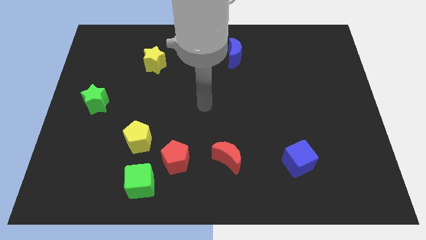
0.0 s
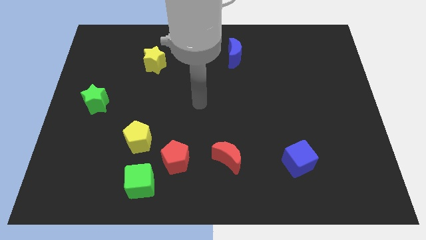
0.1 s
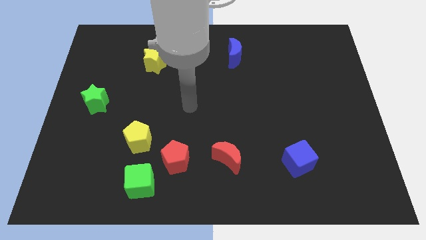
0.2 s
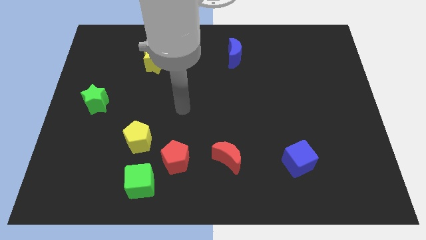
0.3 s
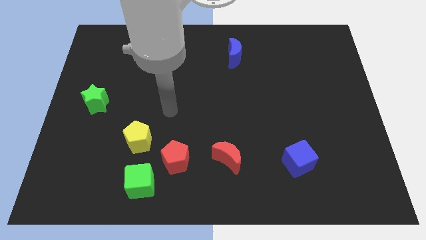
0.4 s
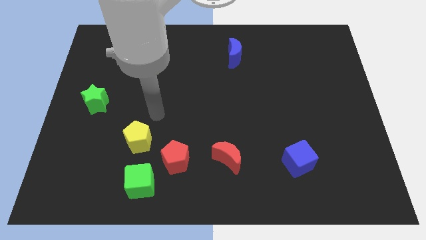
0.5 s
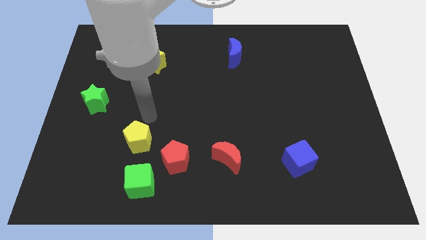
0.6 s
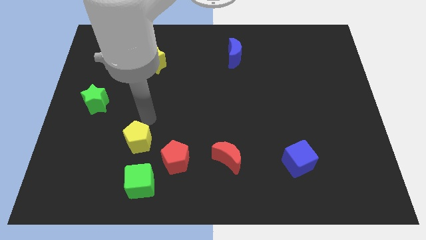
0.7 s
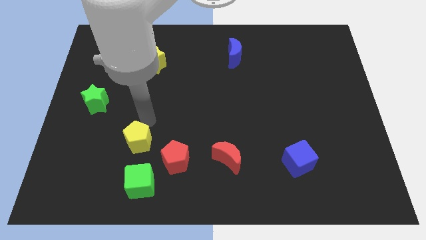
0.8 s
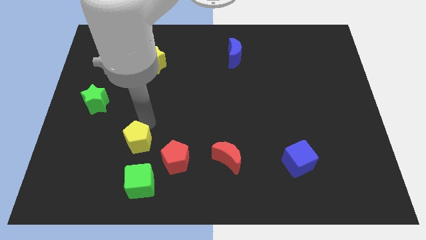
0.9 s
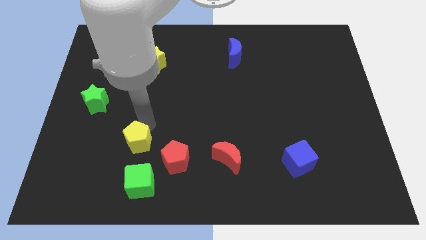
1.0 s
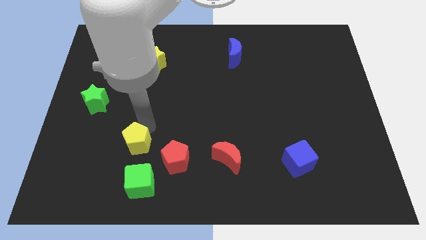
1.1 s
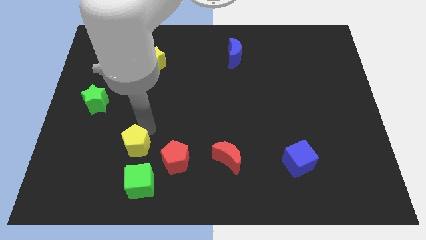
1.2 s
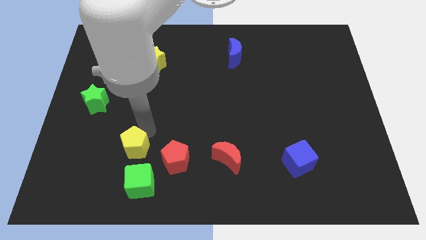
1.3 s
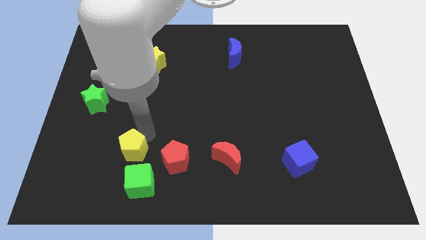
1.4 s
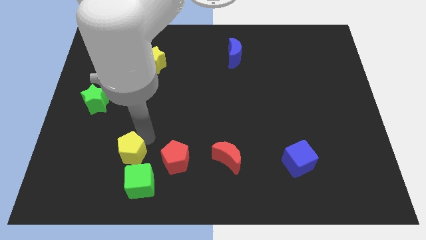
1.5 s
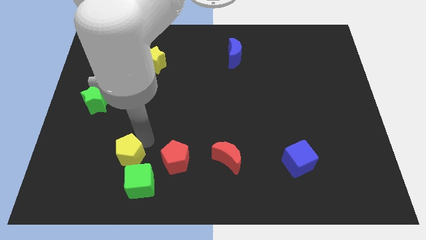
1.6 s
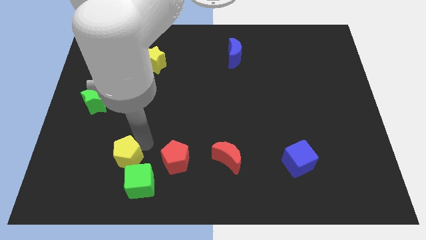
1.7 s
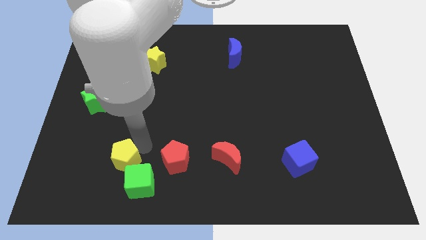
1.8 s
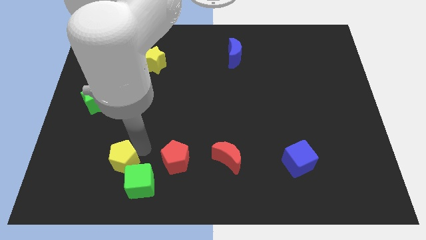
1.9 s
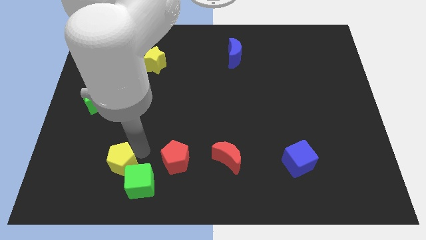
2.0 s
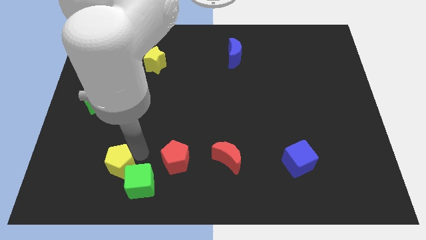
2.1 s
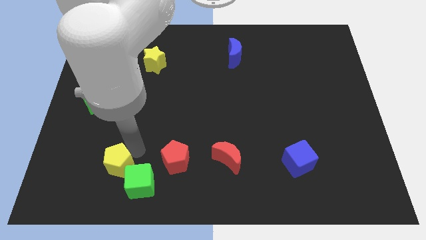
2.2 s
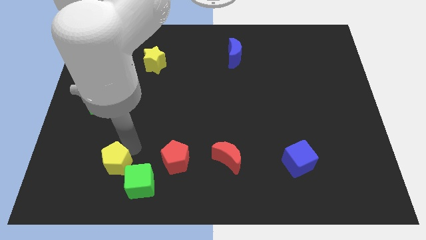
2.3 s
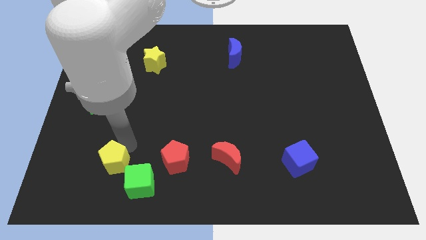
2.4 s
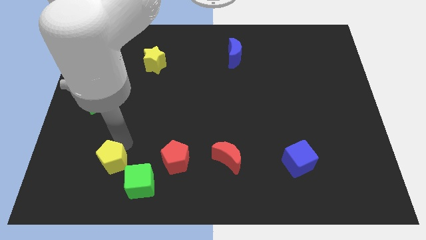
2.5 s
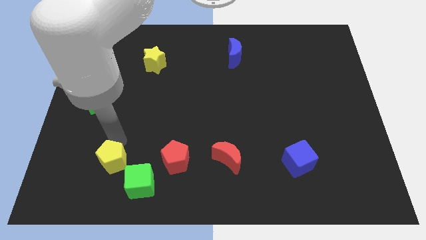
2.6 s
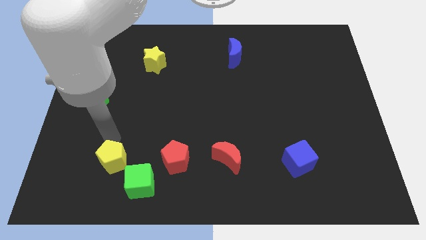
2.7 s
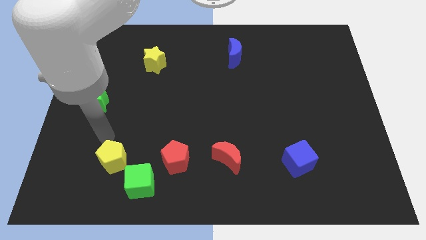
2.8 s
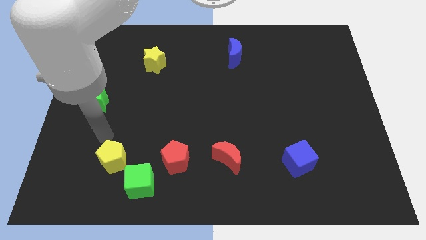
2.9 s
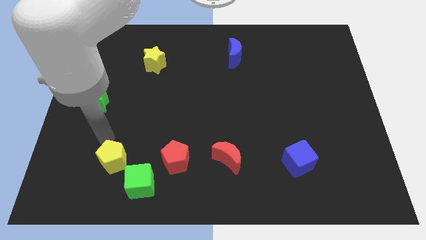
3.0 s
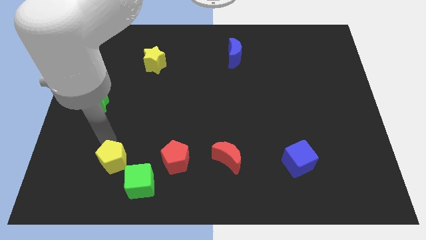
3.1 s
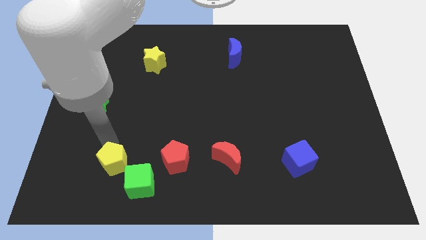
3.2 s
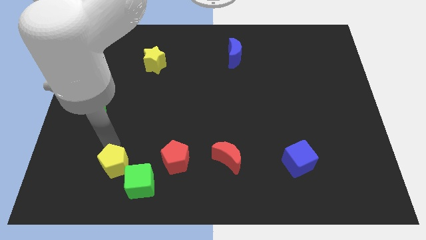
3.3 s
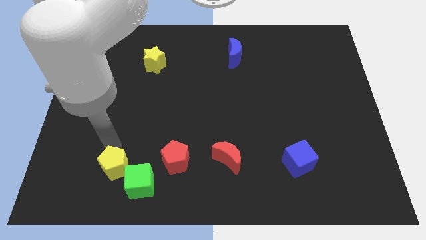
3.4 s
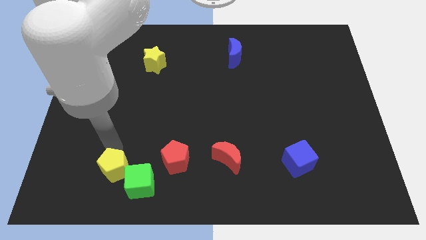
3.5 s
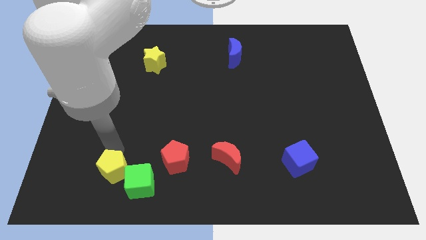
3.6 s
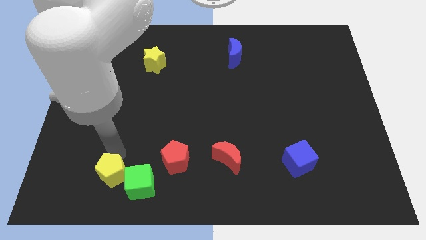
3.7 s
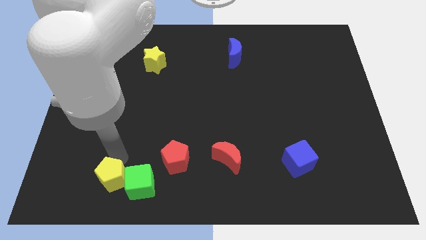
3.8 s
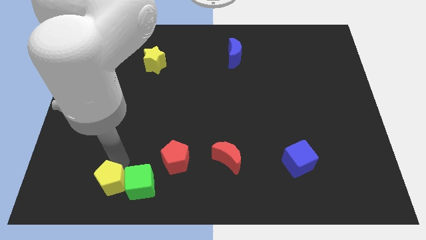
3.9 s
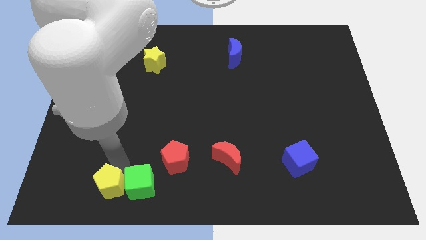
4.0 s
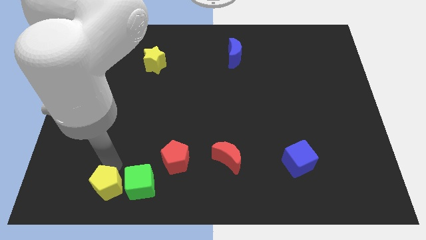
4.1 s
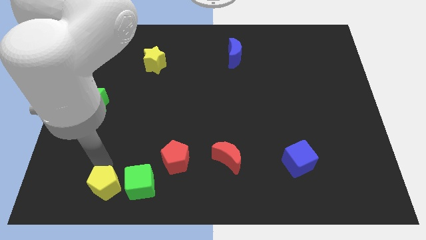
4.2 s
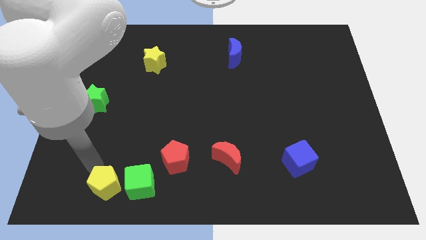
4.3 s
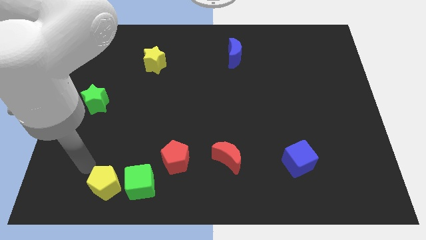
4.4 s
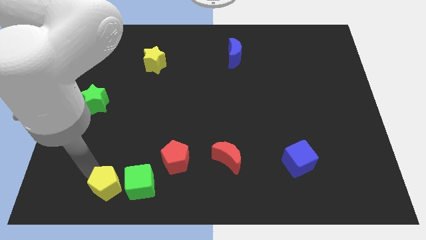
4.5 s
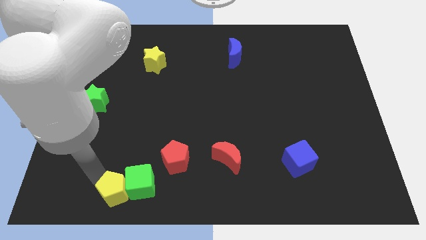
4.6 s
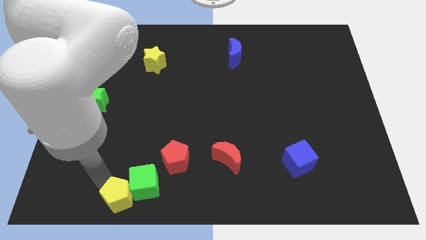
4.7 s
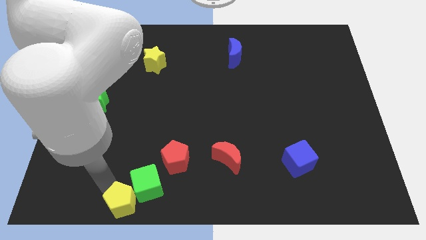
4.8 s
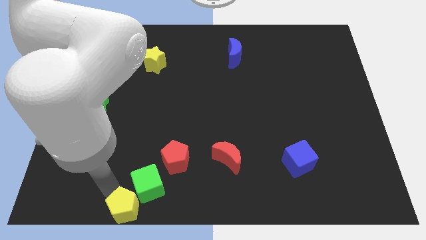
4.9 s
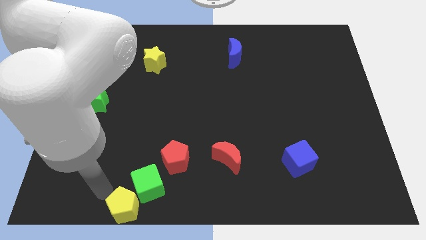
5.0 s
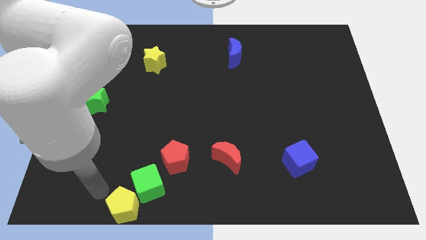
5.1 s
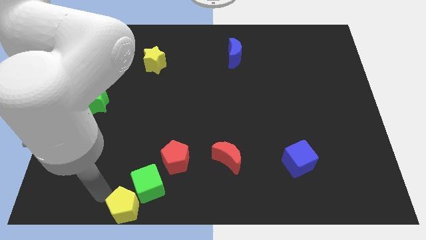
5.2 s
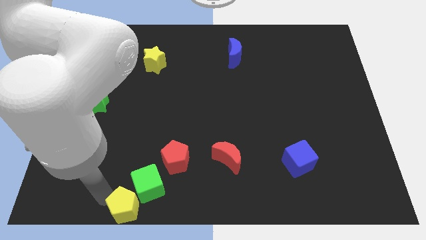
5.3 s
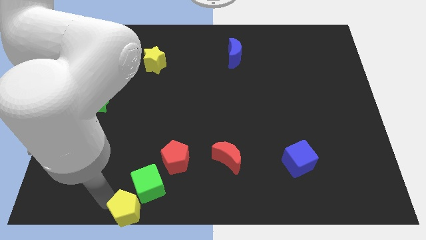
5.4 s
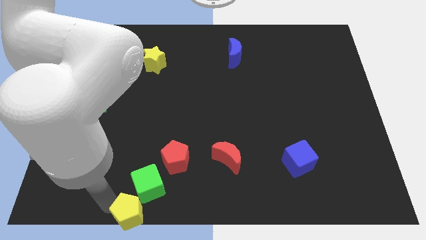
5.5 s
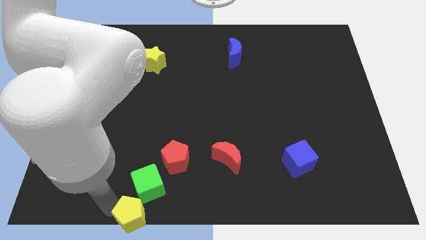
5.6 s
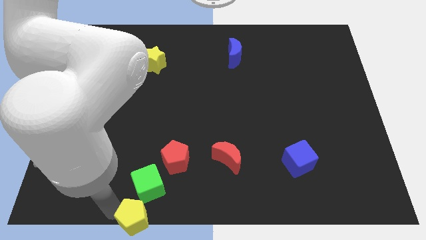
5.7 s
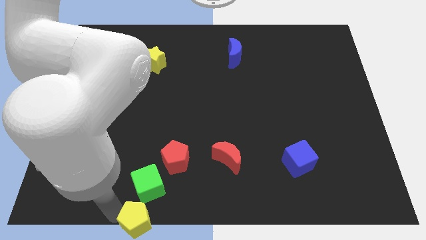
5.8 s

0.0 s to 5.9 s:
push the yellow pentagon to the bottom side

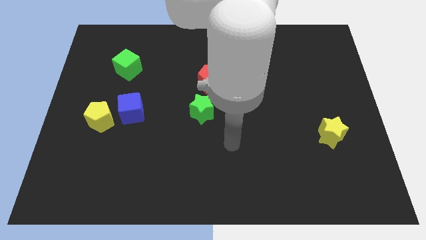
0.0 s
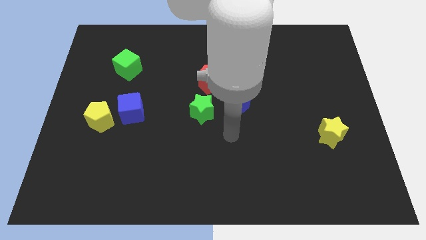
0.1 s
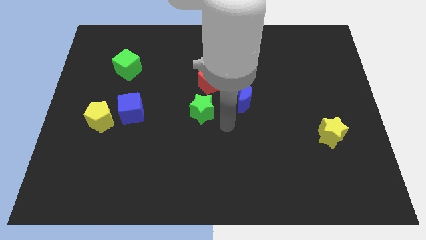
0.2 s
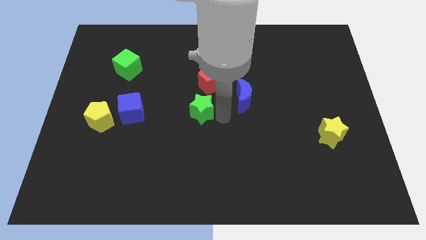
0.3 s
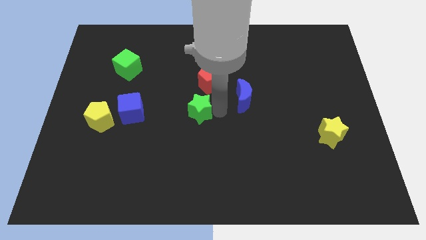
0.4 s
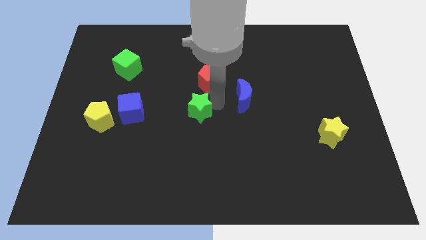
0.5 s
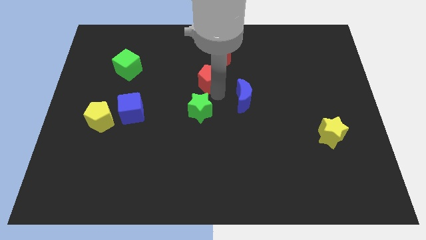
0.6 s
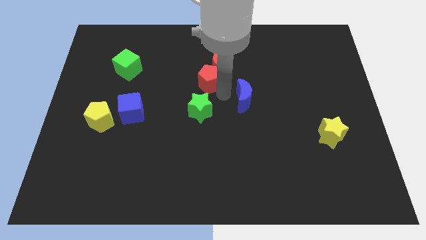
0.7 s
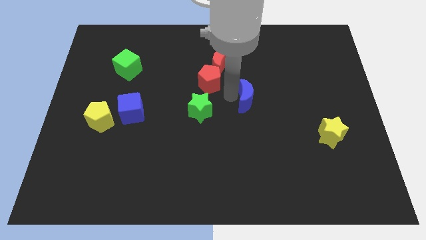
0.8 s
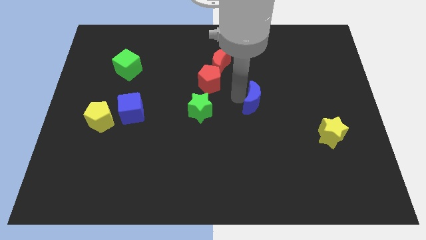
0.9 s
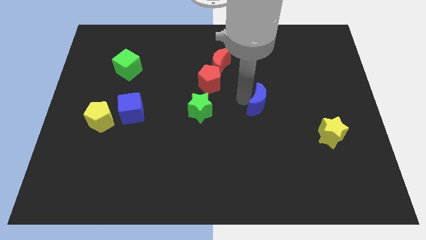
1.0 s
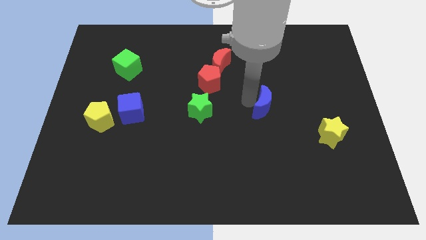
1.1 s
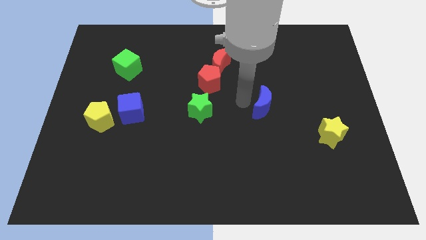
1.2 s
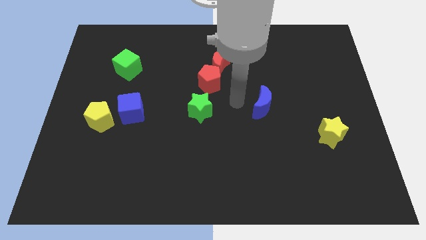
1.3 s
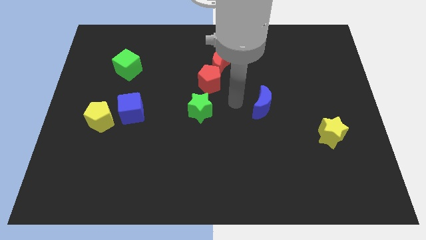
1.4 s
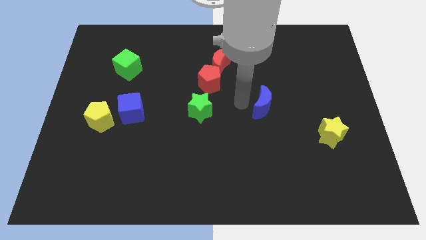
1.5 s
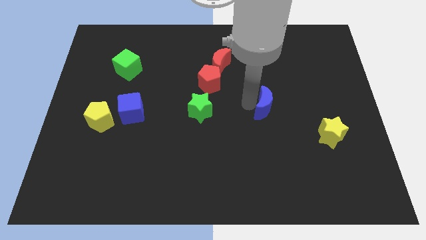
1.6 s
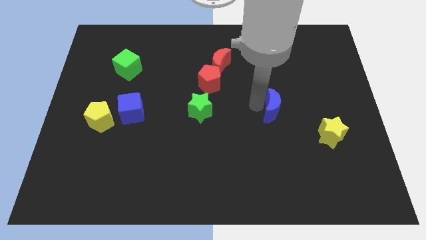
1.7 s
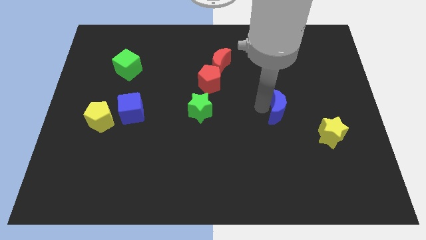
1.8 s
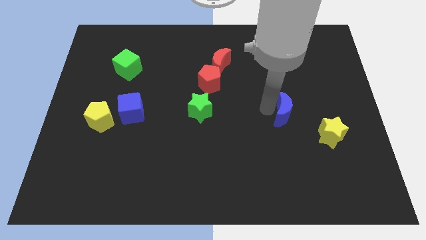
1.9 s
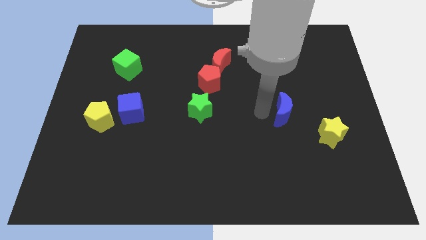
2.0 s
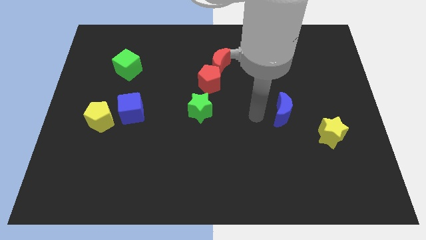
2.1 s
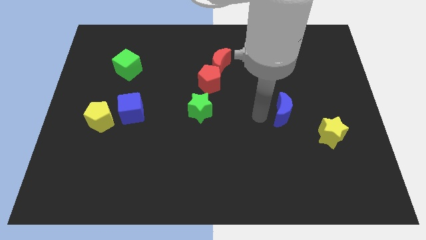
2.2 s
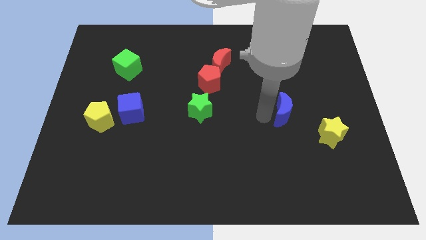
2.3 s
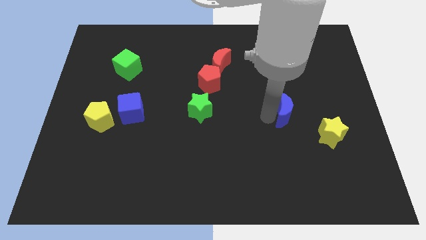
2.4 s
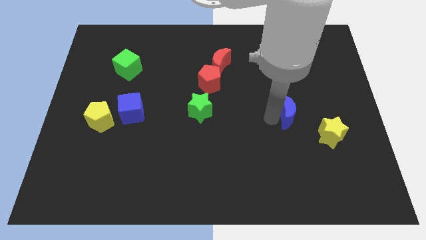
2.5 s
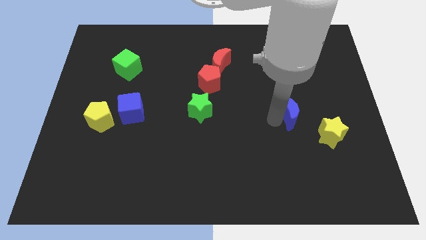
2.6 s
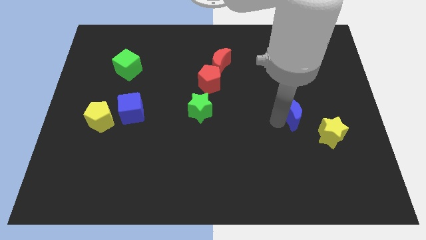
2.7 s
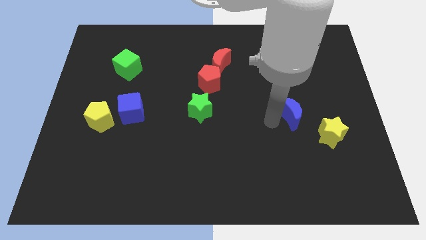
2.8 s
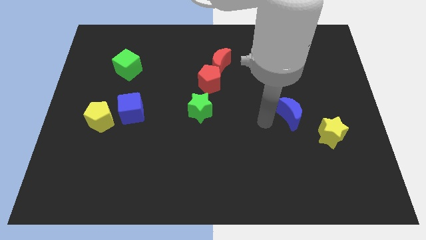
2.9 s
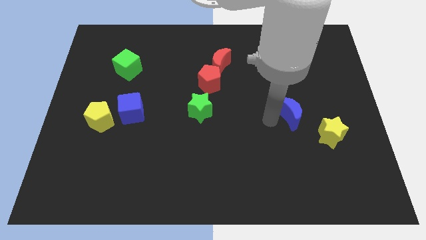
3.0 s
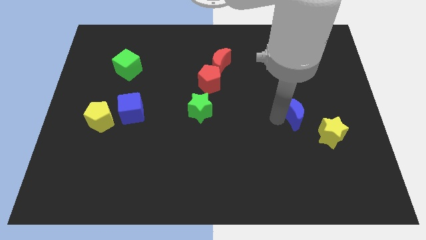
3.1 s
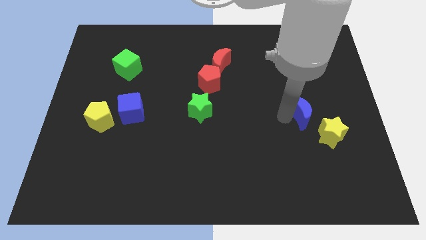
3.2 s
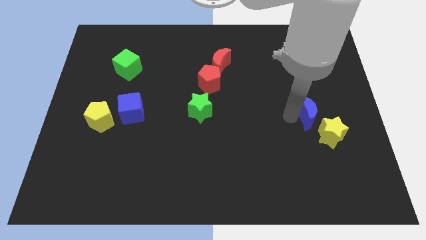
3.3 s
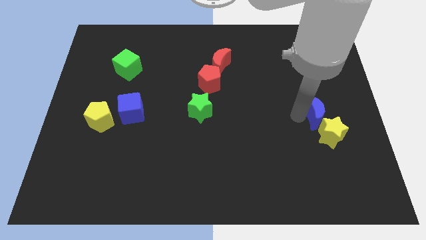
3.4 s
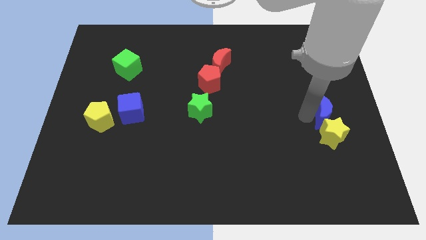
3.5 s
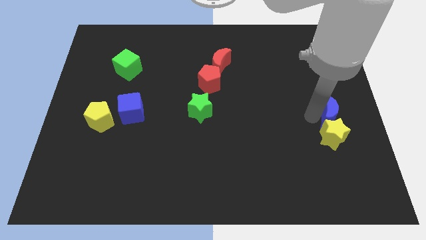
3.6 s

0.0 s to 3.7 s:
put the blue moon to the right side
